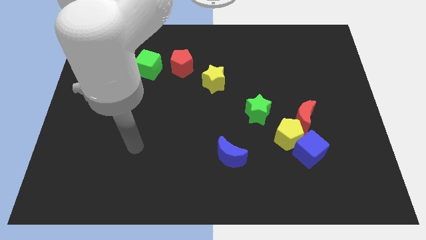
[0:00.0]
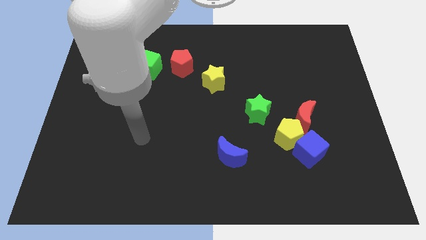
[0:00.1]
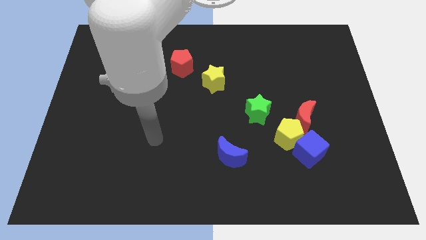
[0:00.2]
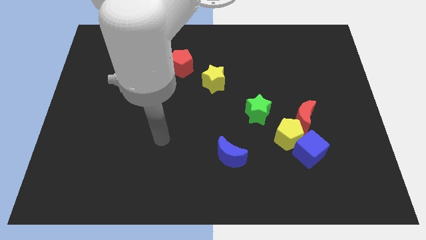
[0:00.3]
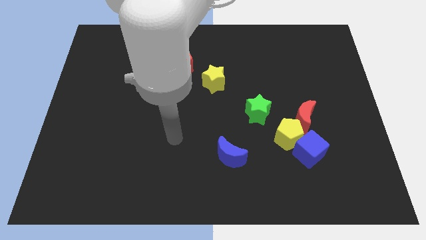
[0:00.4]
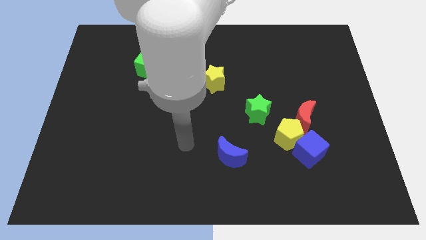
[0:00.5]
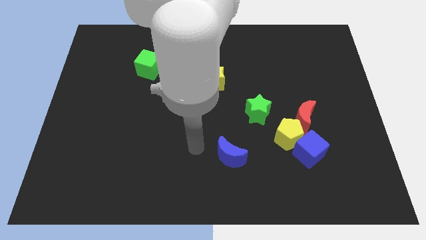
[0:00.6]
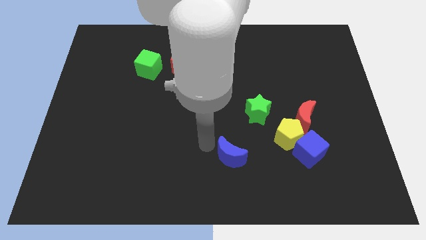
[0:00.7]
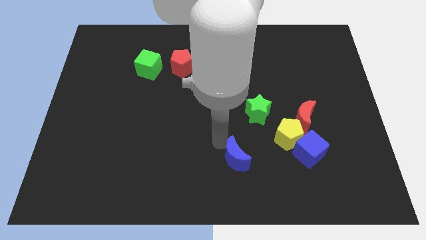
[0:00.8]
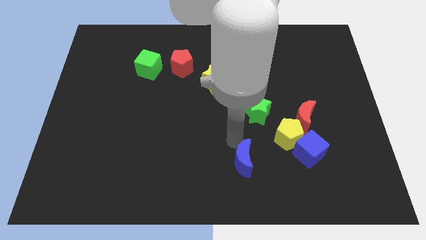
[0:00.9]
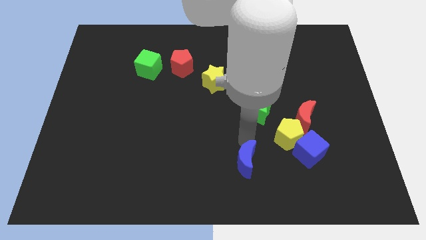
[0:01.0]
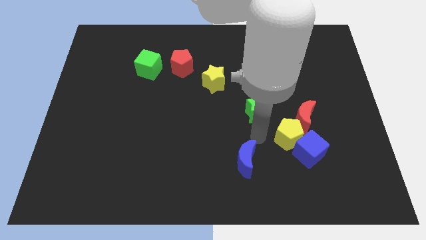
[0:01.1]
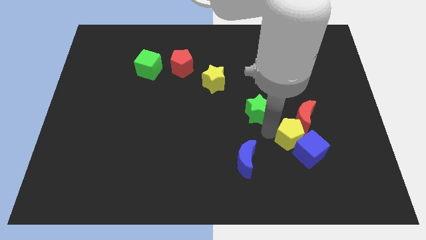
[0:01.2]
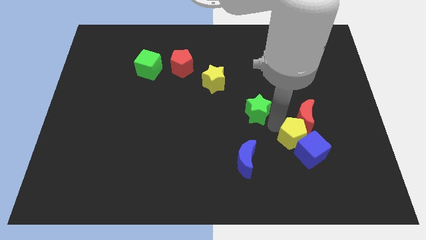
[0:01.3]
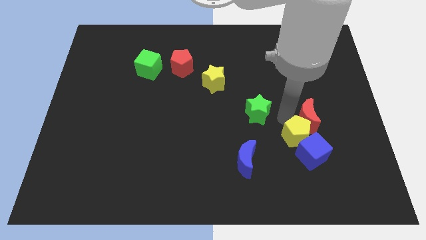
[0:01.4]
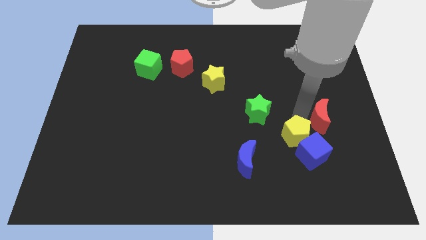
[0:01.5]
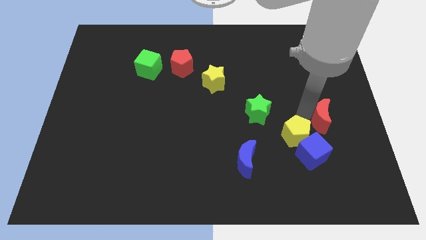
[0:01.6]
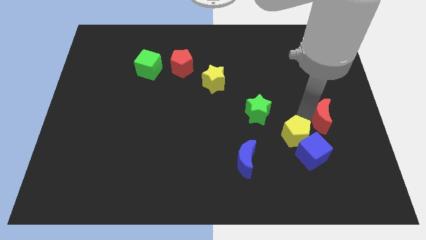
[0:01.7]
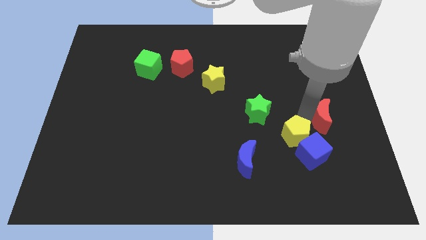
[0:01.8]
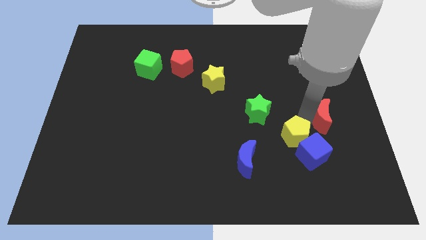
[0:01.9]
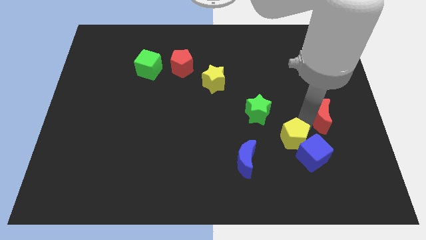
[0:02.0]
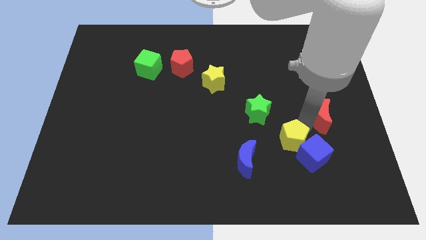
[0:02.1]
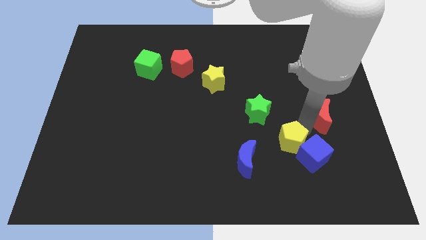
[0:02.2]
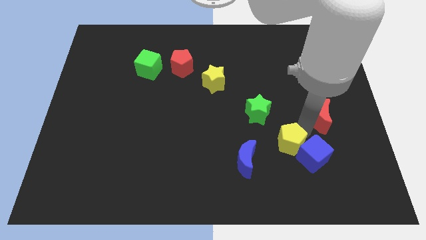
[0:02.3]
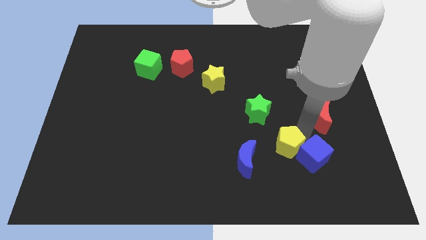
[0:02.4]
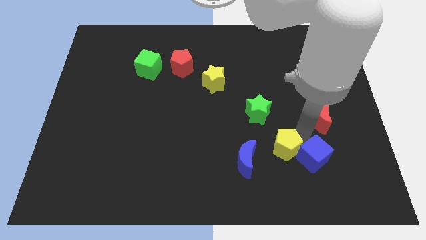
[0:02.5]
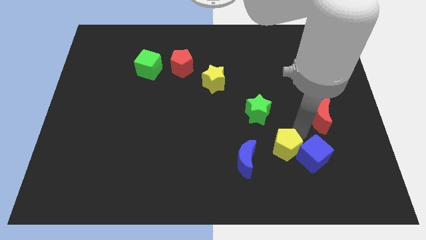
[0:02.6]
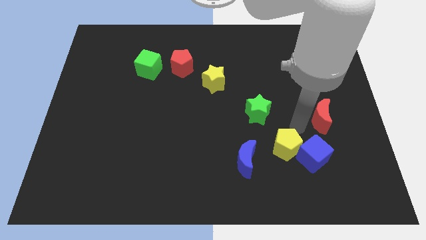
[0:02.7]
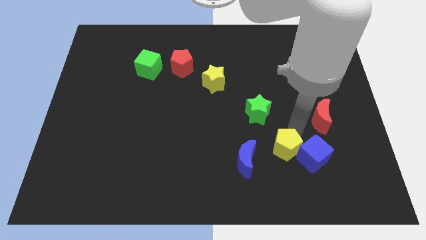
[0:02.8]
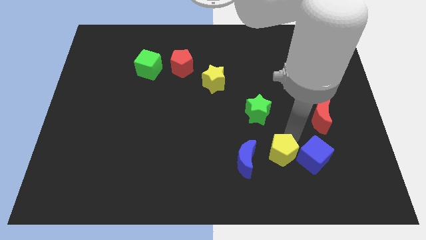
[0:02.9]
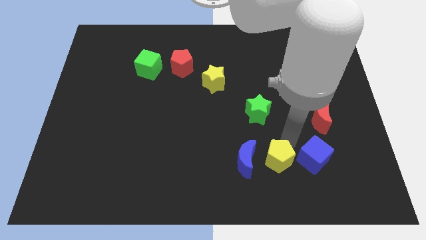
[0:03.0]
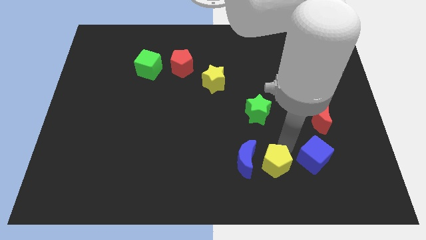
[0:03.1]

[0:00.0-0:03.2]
separate the yellow pentagon from the group of blocks

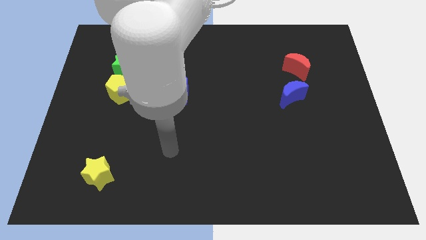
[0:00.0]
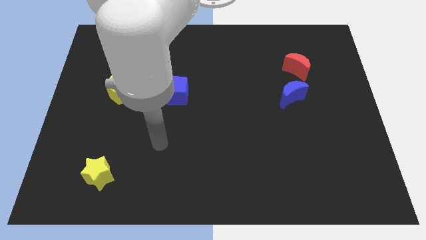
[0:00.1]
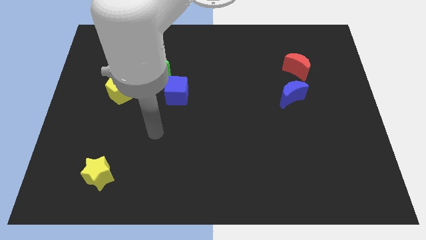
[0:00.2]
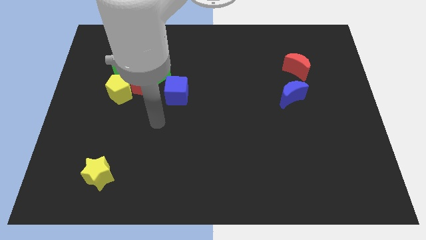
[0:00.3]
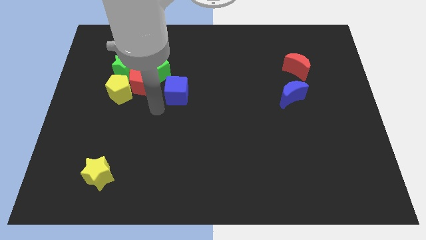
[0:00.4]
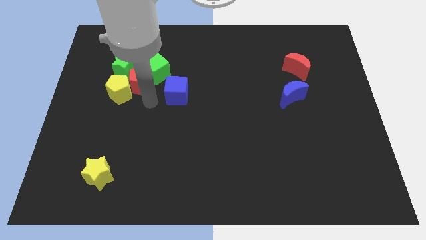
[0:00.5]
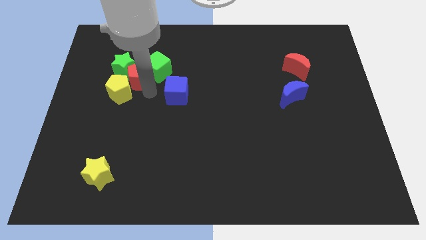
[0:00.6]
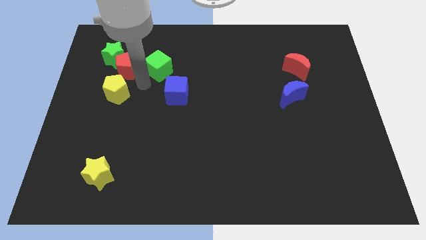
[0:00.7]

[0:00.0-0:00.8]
separate the yellow pentagon from the red pentagon and green star

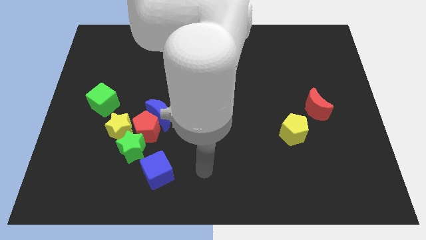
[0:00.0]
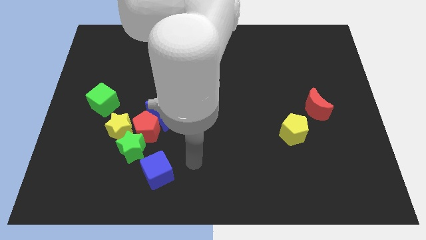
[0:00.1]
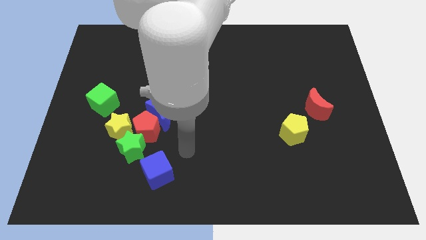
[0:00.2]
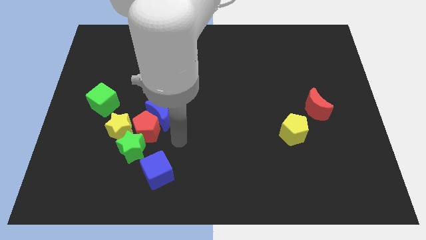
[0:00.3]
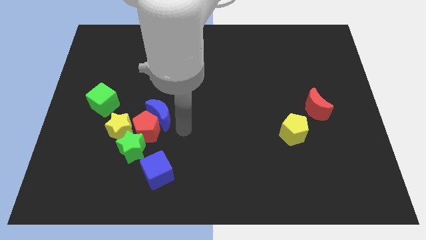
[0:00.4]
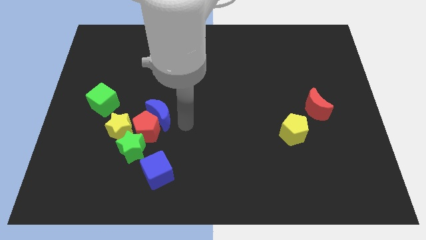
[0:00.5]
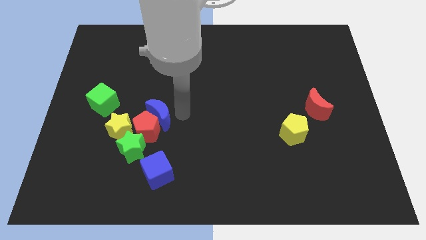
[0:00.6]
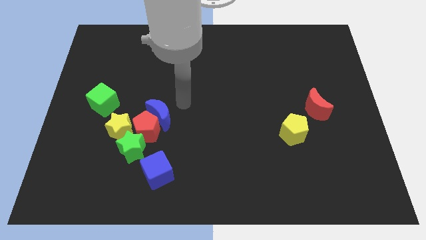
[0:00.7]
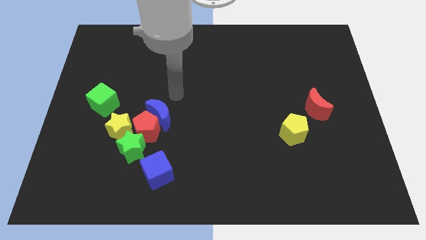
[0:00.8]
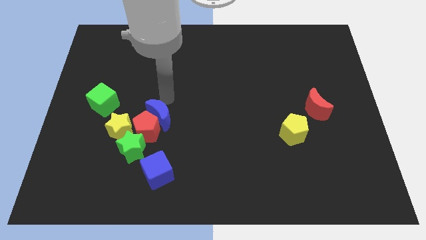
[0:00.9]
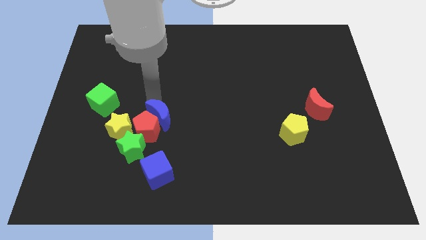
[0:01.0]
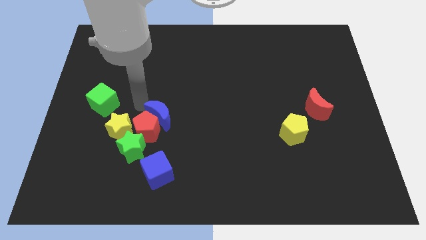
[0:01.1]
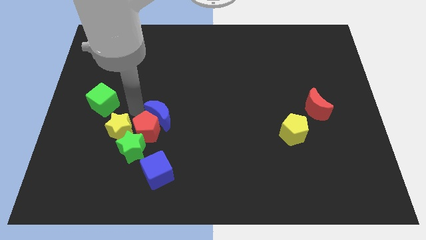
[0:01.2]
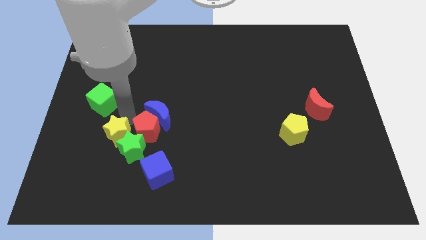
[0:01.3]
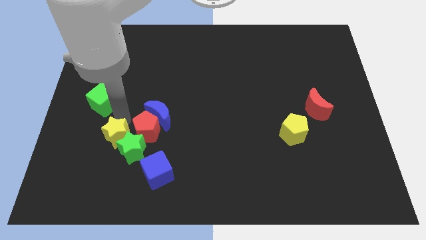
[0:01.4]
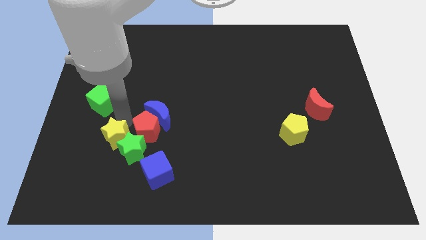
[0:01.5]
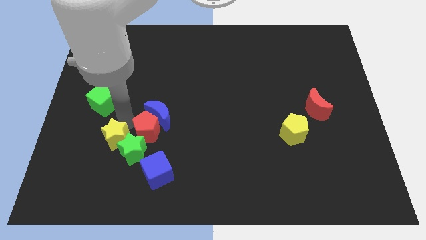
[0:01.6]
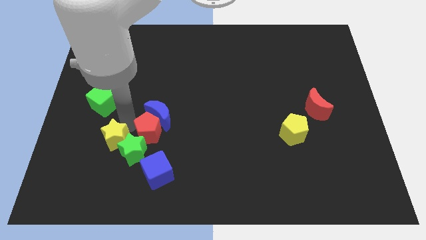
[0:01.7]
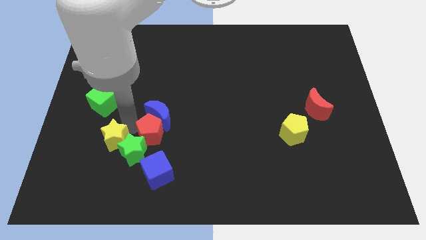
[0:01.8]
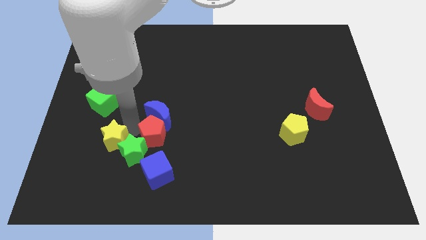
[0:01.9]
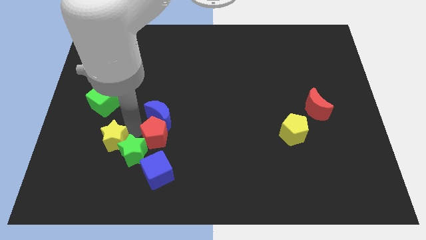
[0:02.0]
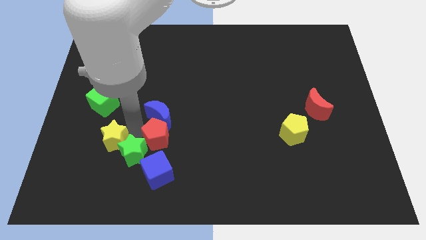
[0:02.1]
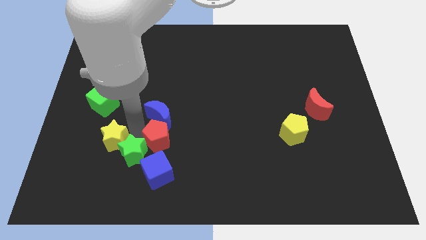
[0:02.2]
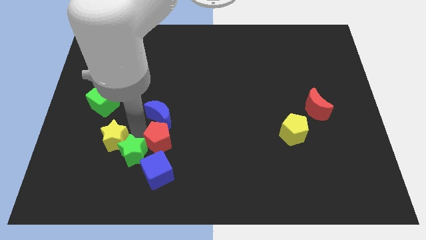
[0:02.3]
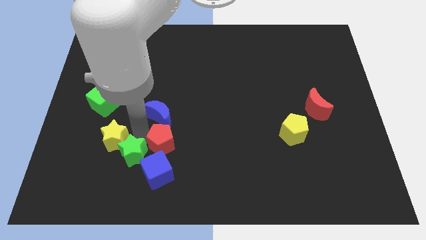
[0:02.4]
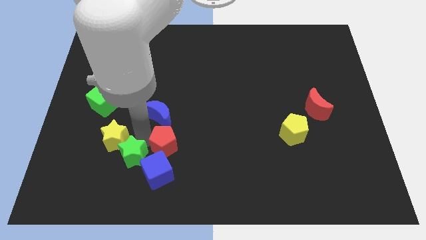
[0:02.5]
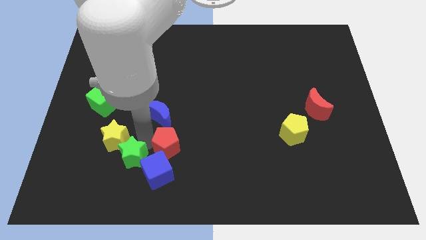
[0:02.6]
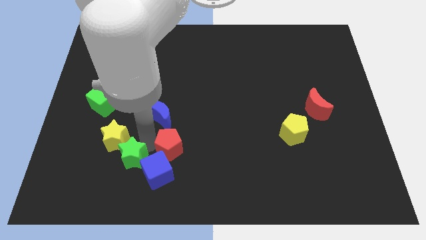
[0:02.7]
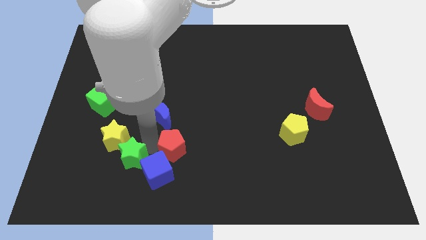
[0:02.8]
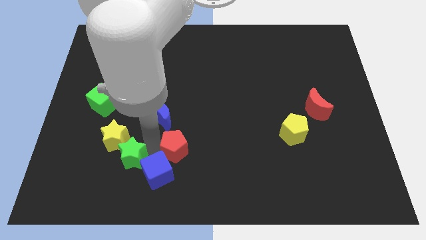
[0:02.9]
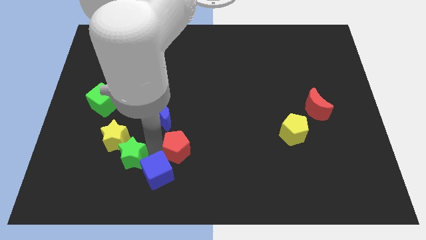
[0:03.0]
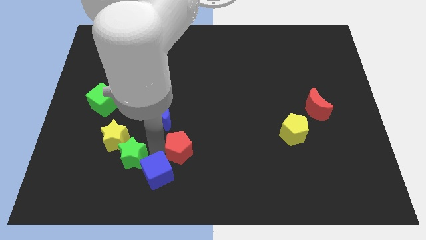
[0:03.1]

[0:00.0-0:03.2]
move the red pentagon away from the blue moon, green star, and yellow star

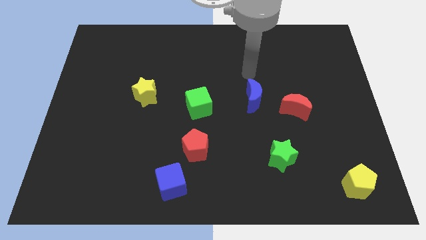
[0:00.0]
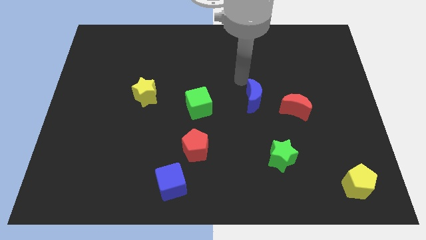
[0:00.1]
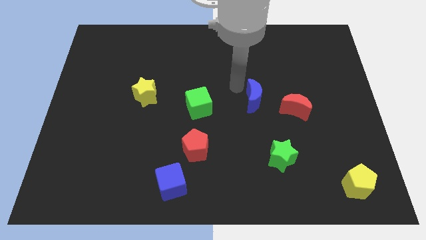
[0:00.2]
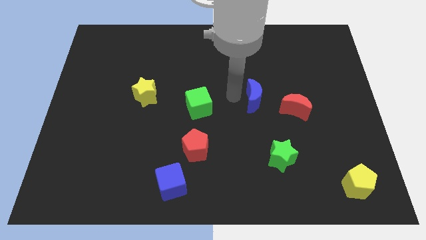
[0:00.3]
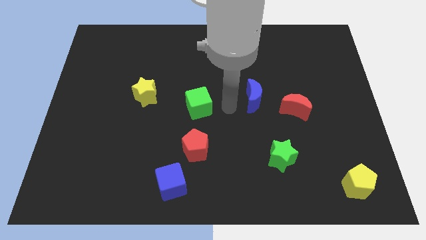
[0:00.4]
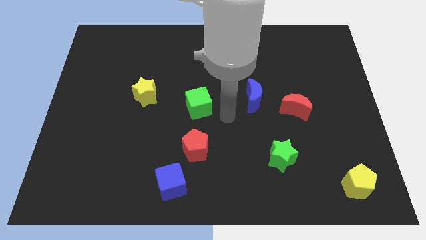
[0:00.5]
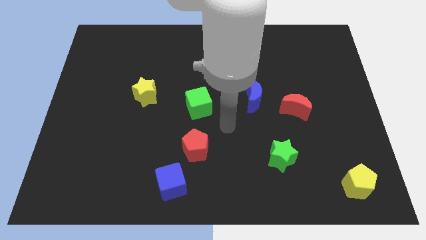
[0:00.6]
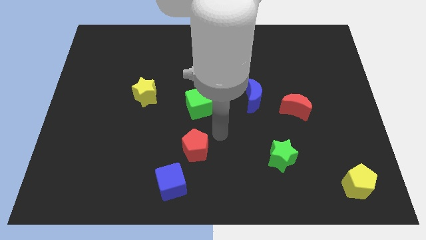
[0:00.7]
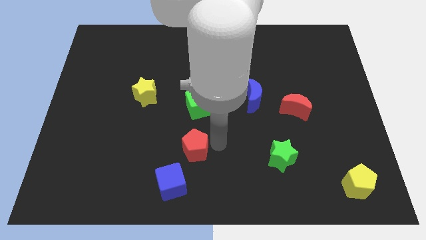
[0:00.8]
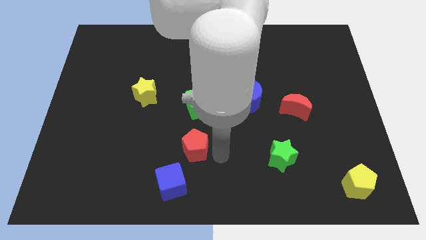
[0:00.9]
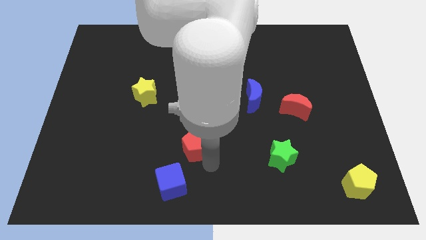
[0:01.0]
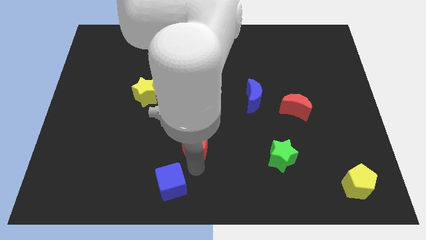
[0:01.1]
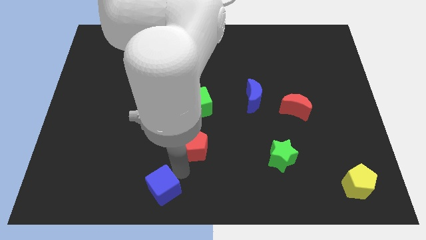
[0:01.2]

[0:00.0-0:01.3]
separate the red pentagon from the blue cube

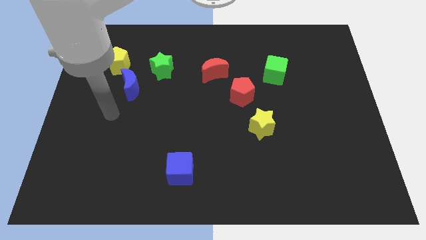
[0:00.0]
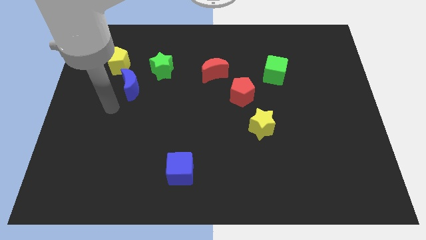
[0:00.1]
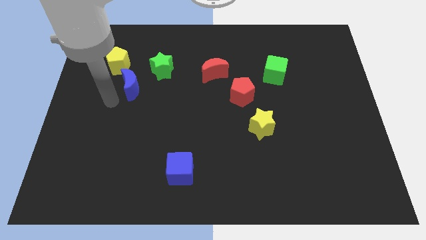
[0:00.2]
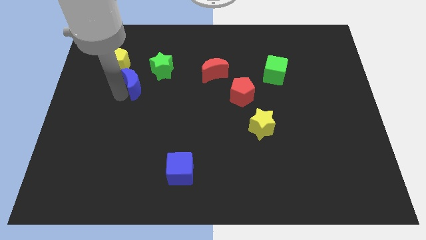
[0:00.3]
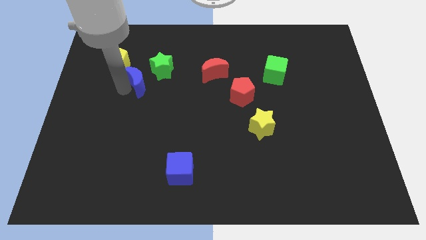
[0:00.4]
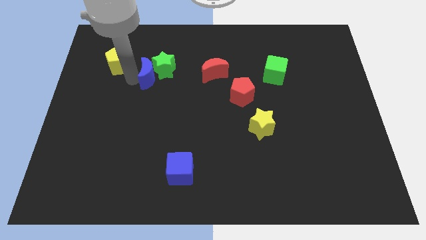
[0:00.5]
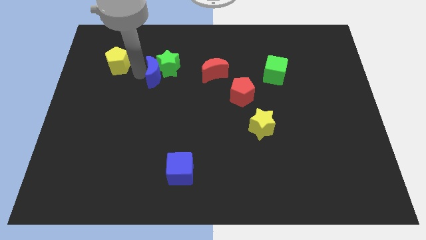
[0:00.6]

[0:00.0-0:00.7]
pull the yellow pentagon apart from the blue moon

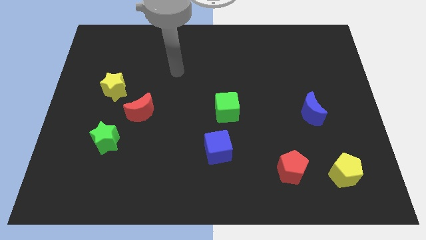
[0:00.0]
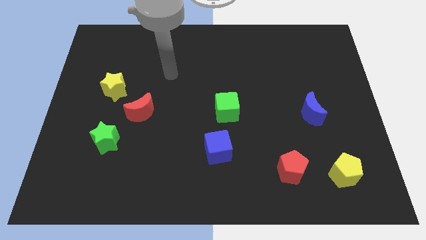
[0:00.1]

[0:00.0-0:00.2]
separate the red moon from the yellow star
